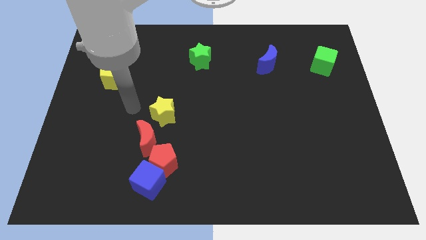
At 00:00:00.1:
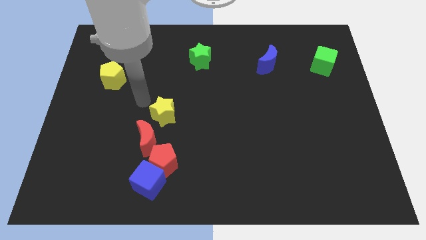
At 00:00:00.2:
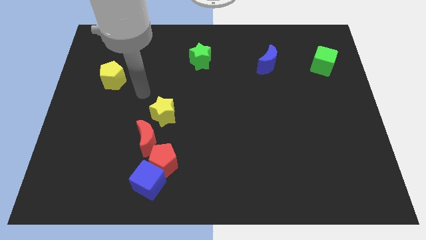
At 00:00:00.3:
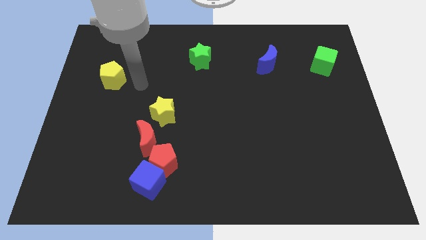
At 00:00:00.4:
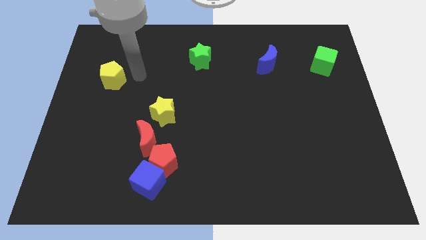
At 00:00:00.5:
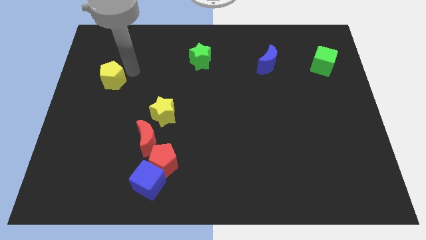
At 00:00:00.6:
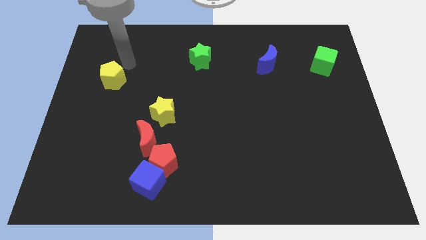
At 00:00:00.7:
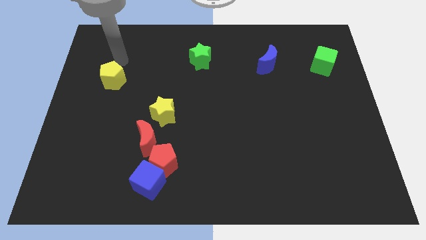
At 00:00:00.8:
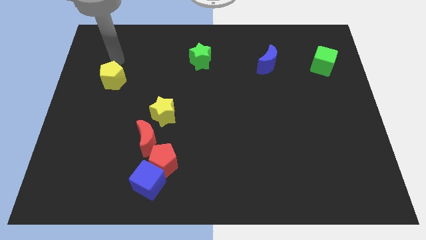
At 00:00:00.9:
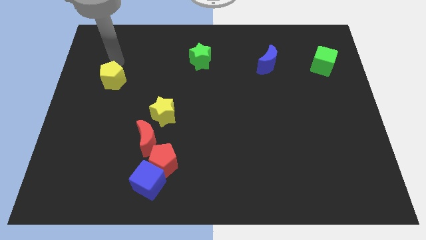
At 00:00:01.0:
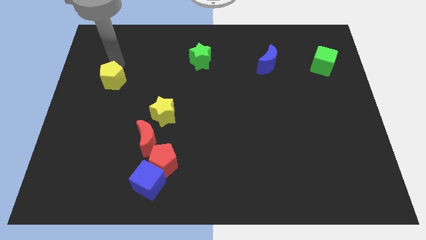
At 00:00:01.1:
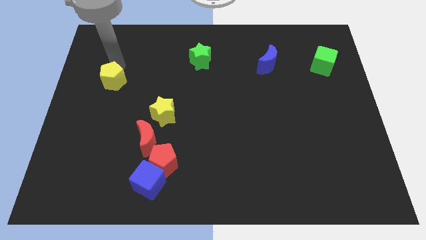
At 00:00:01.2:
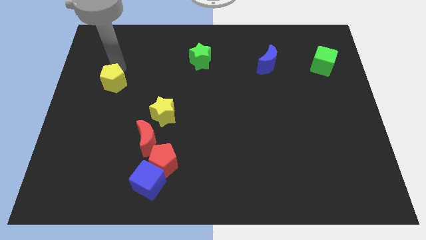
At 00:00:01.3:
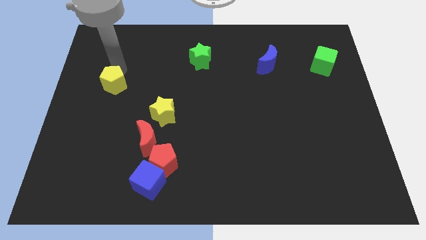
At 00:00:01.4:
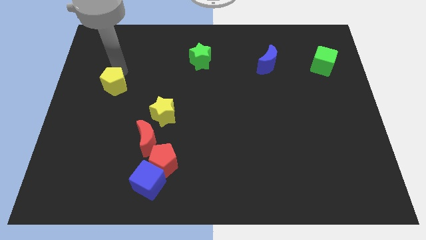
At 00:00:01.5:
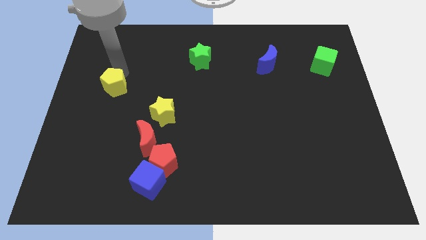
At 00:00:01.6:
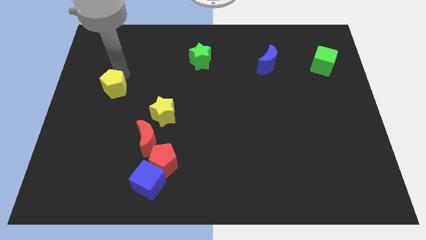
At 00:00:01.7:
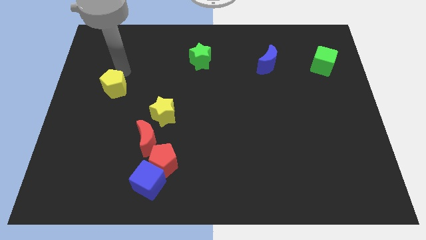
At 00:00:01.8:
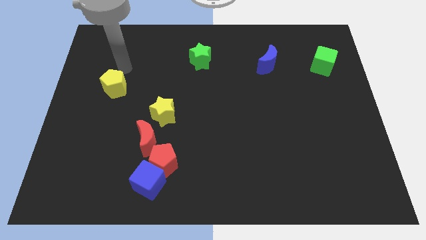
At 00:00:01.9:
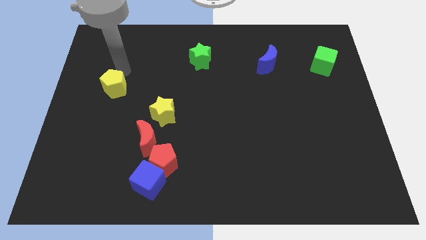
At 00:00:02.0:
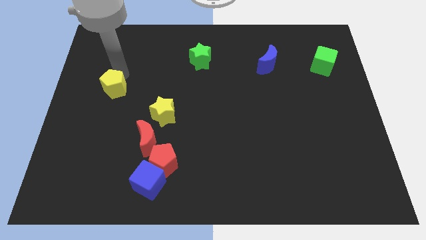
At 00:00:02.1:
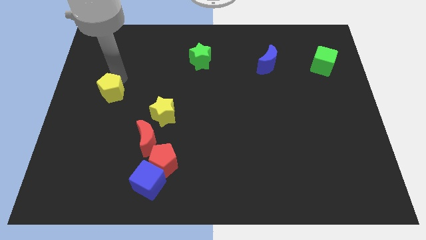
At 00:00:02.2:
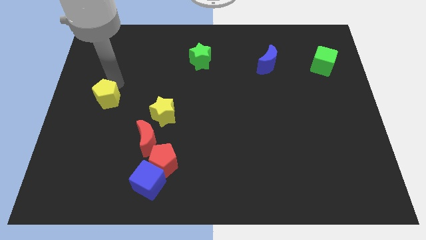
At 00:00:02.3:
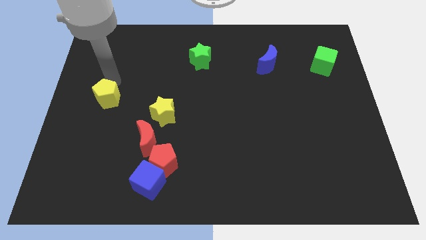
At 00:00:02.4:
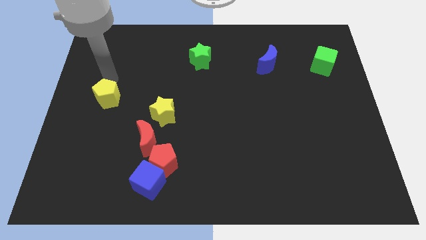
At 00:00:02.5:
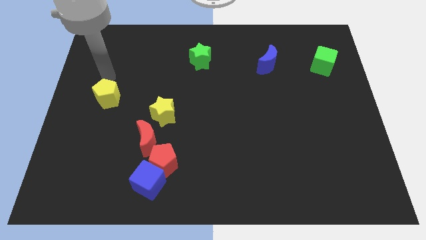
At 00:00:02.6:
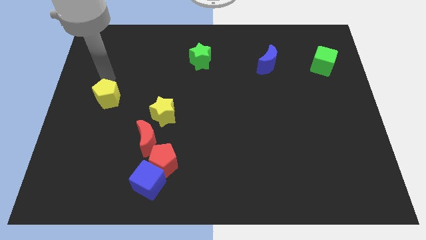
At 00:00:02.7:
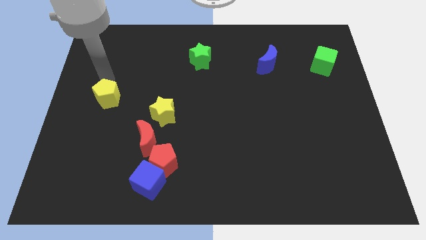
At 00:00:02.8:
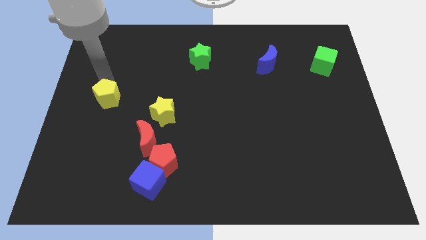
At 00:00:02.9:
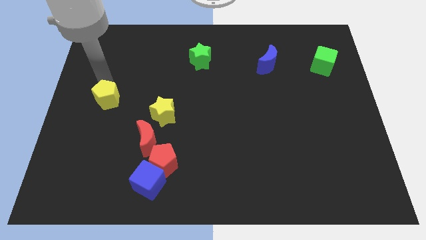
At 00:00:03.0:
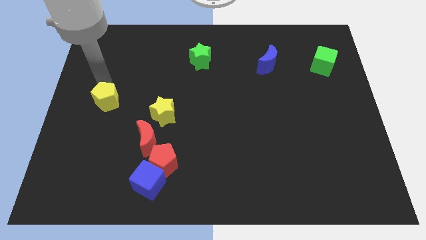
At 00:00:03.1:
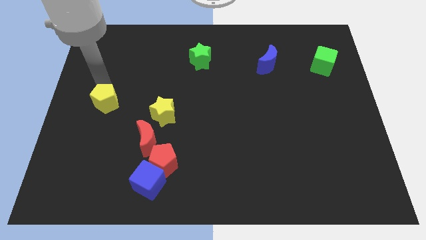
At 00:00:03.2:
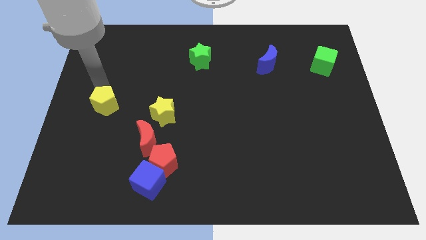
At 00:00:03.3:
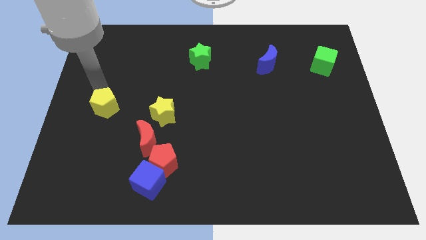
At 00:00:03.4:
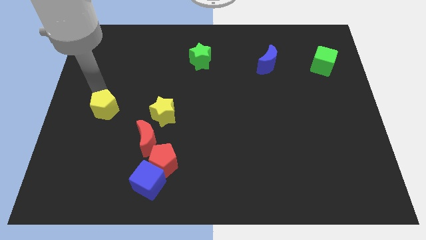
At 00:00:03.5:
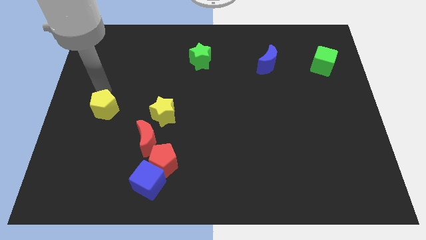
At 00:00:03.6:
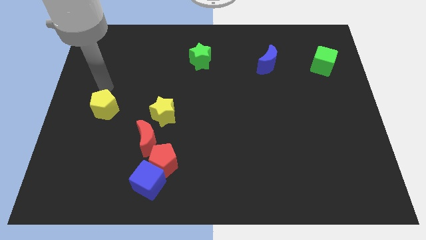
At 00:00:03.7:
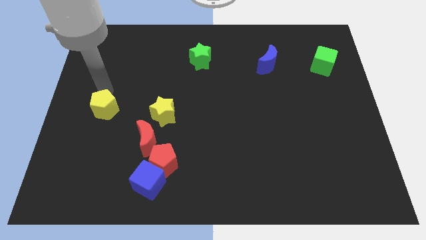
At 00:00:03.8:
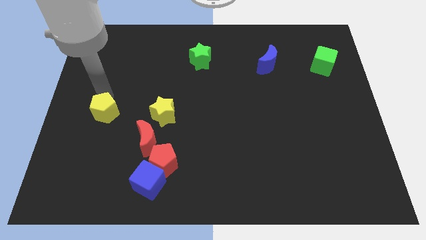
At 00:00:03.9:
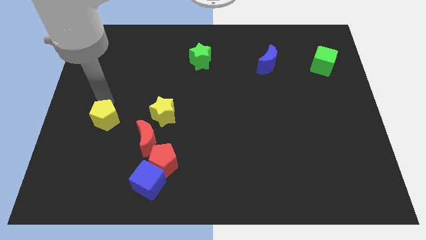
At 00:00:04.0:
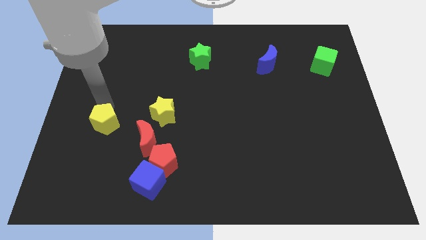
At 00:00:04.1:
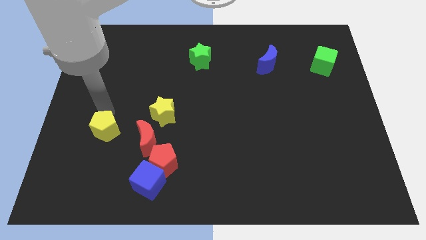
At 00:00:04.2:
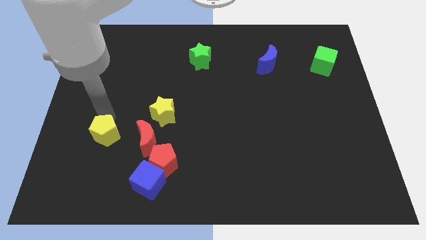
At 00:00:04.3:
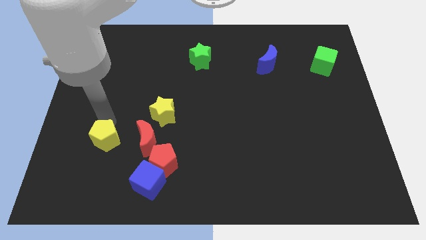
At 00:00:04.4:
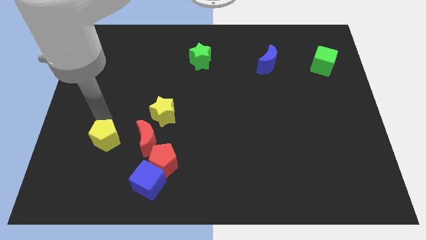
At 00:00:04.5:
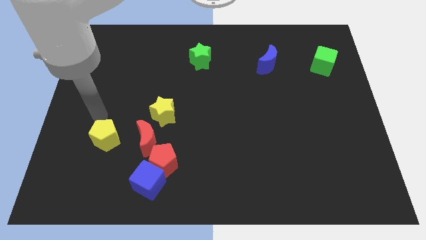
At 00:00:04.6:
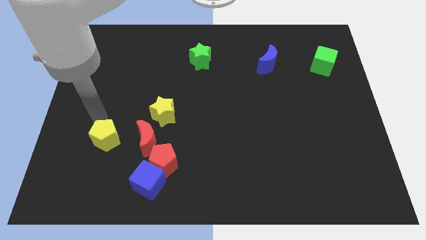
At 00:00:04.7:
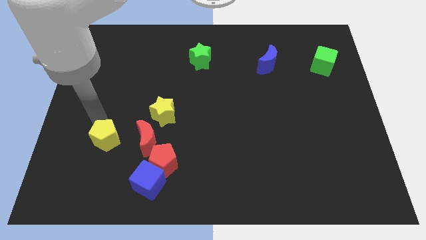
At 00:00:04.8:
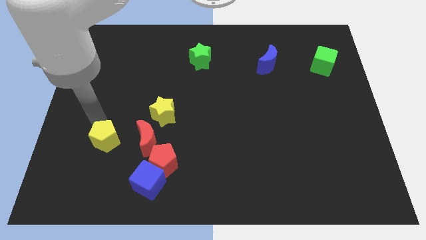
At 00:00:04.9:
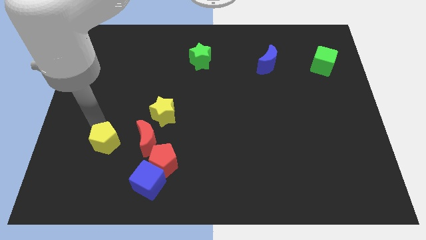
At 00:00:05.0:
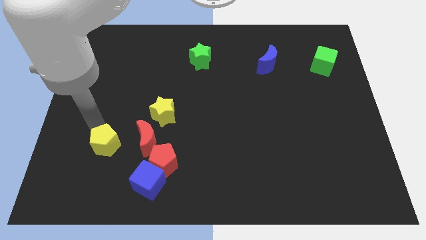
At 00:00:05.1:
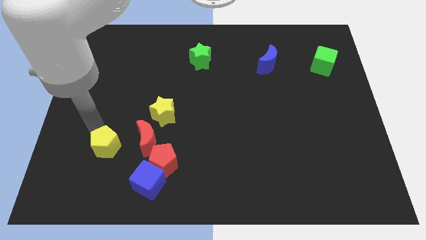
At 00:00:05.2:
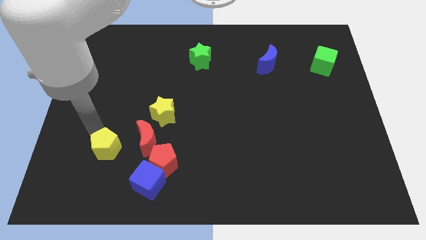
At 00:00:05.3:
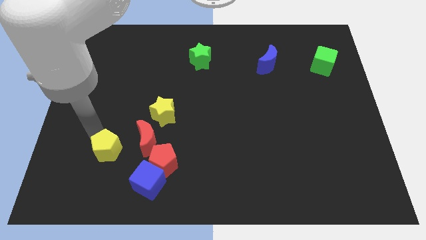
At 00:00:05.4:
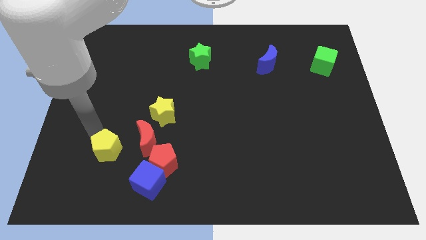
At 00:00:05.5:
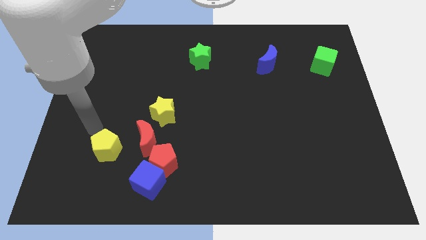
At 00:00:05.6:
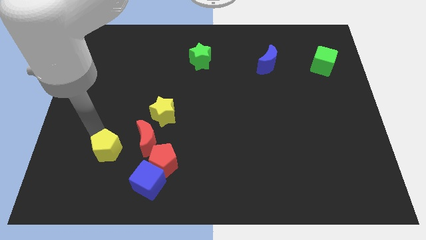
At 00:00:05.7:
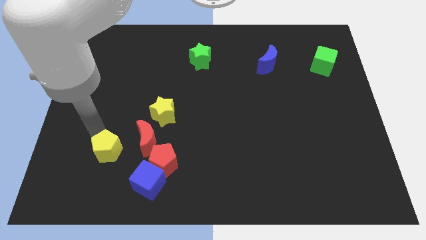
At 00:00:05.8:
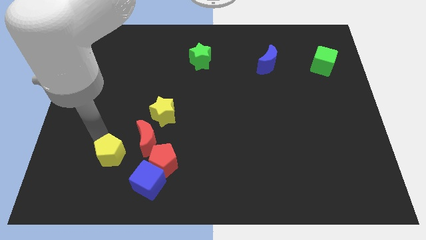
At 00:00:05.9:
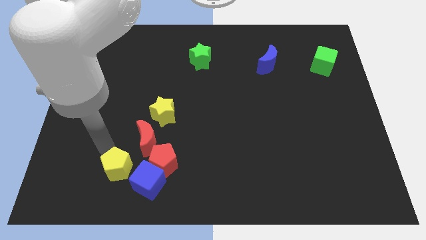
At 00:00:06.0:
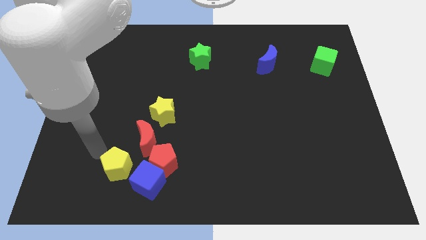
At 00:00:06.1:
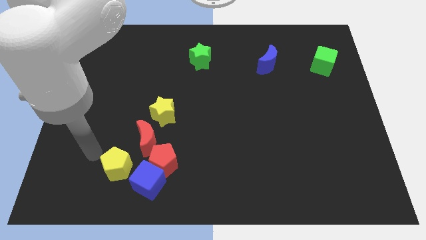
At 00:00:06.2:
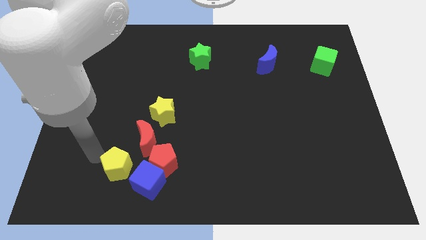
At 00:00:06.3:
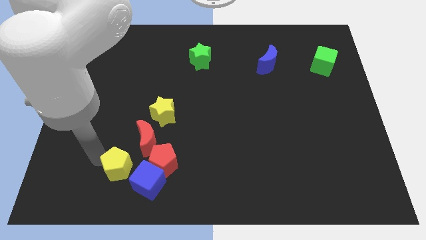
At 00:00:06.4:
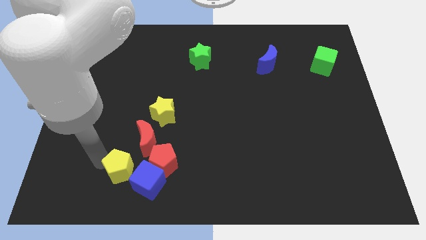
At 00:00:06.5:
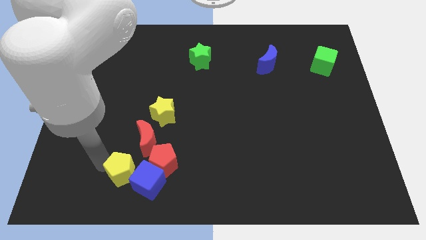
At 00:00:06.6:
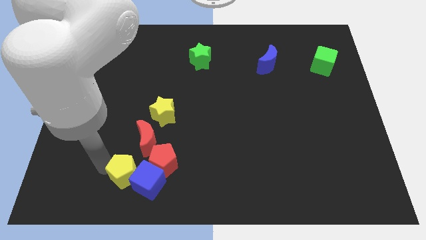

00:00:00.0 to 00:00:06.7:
push the yellow pentagon towards the blue cube

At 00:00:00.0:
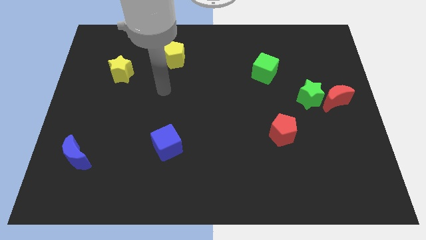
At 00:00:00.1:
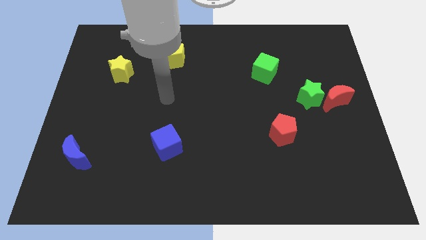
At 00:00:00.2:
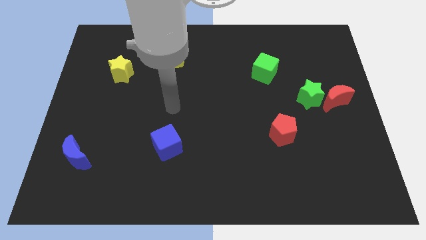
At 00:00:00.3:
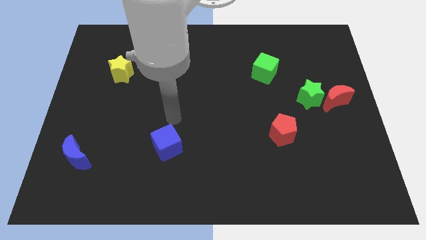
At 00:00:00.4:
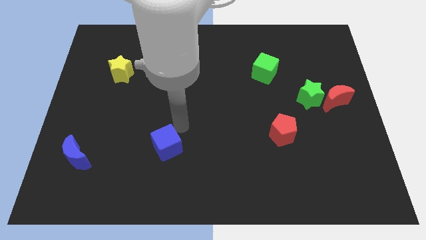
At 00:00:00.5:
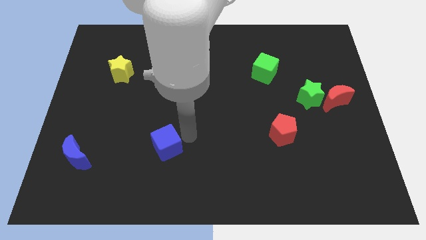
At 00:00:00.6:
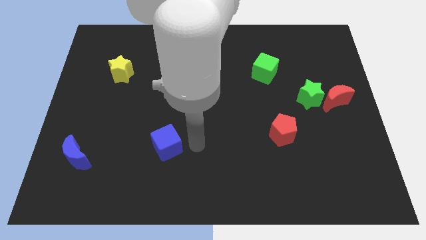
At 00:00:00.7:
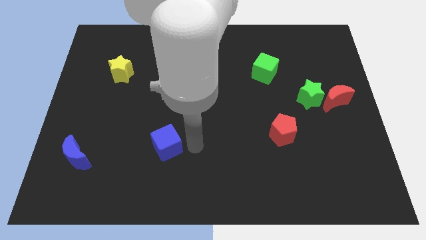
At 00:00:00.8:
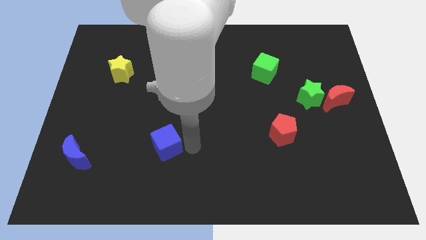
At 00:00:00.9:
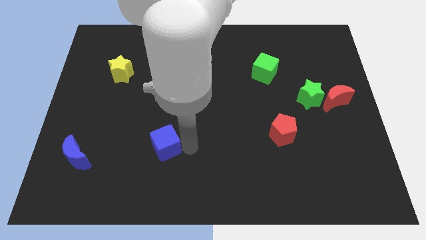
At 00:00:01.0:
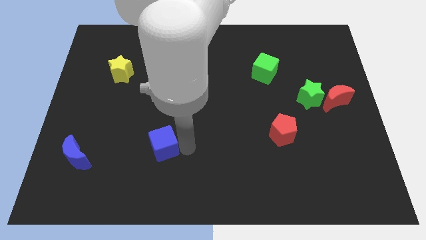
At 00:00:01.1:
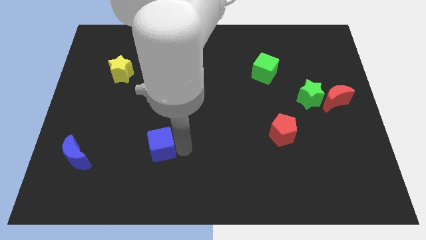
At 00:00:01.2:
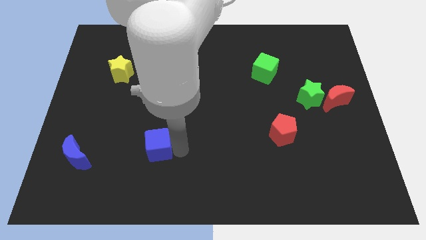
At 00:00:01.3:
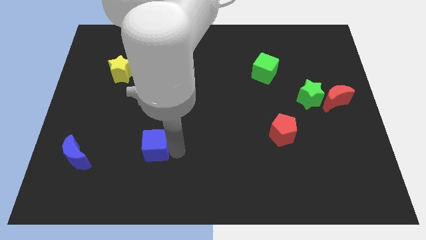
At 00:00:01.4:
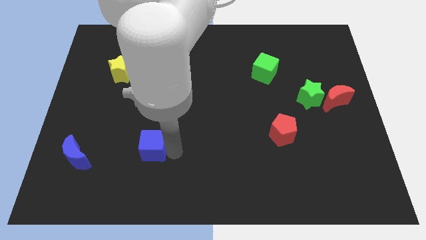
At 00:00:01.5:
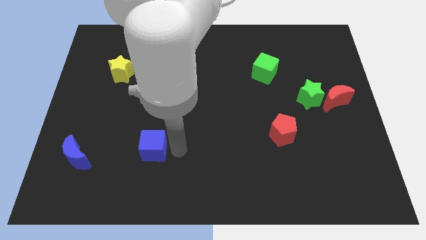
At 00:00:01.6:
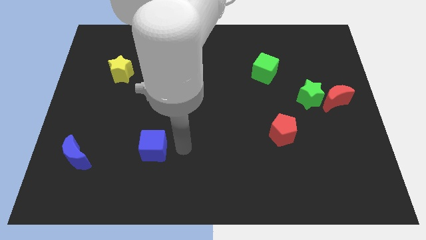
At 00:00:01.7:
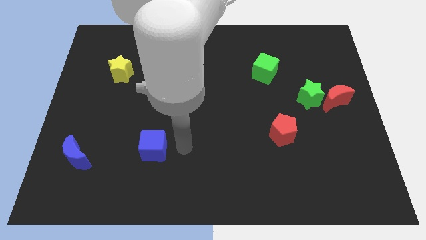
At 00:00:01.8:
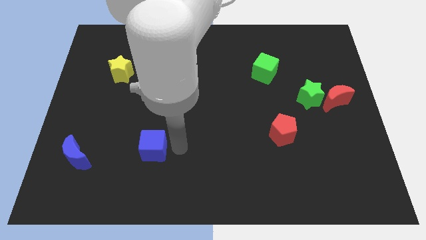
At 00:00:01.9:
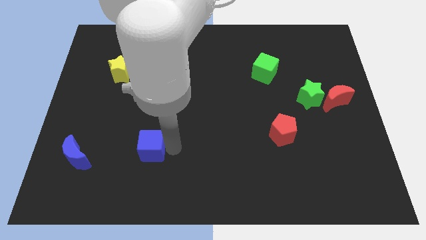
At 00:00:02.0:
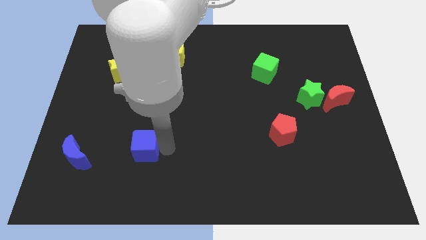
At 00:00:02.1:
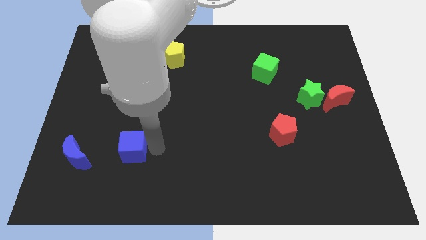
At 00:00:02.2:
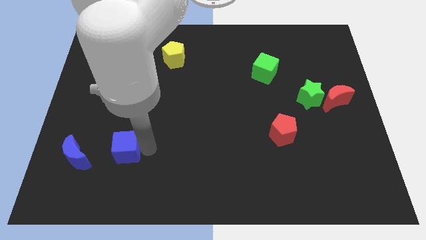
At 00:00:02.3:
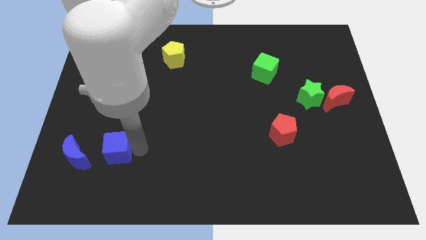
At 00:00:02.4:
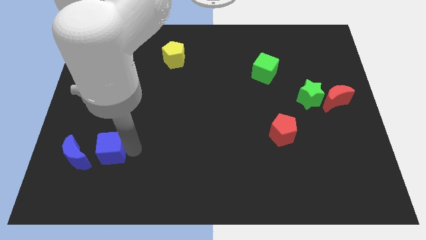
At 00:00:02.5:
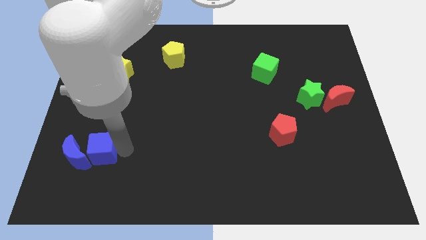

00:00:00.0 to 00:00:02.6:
put the blue cube towards the blue moon
